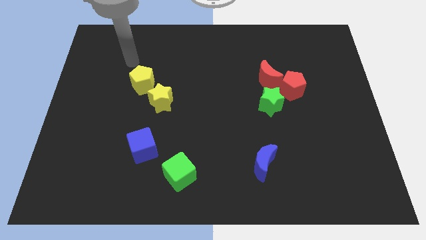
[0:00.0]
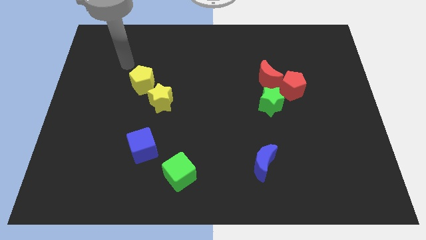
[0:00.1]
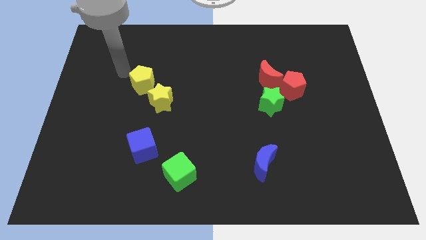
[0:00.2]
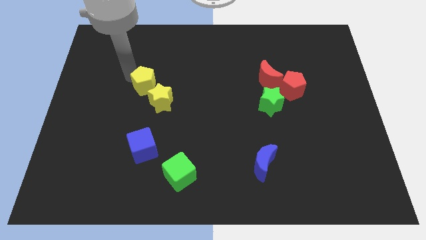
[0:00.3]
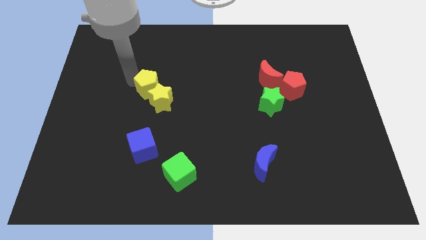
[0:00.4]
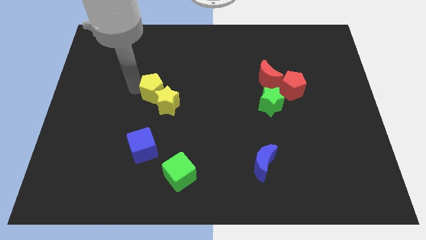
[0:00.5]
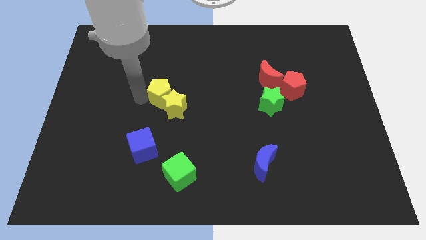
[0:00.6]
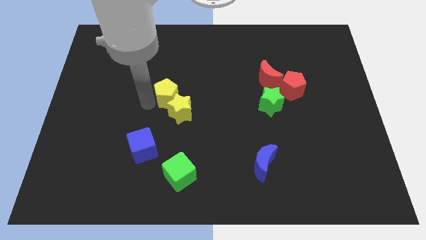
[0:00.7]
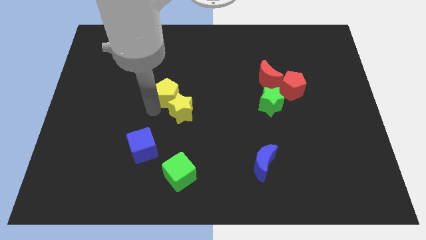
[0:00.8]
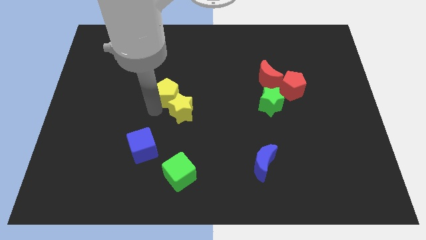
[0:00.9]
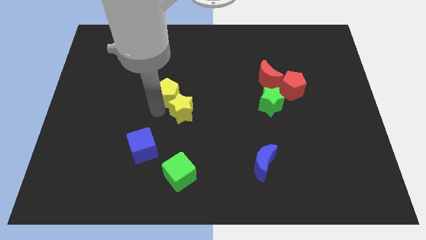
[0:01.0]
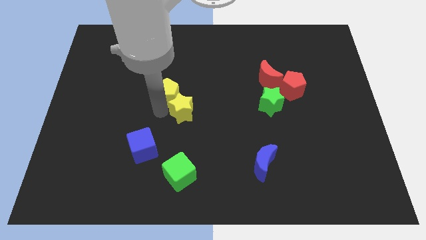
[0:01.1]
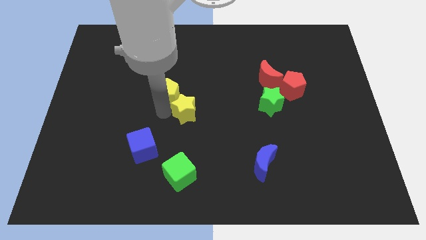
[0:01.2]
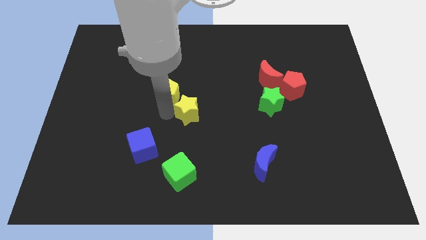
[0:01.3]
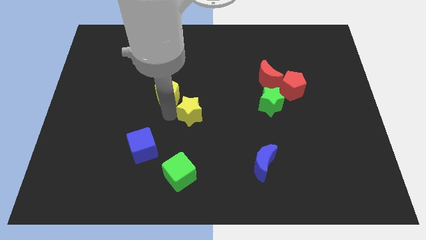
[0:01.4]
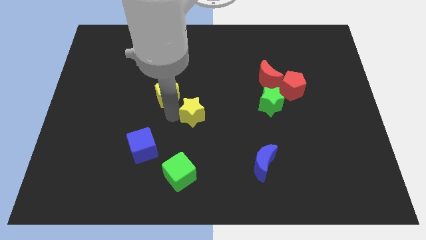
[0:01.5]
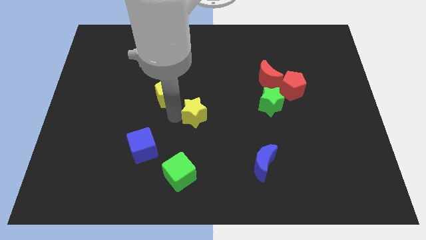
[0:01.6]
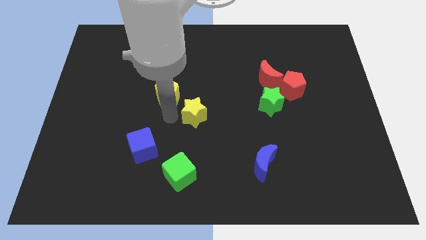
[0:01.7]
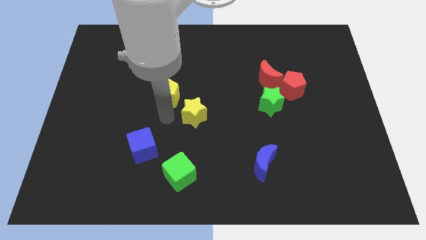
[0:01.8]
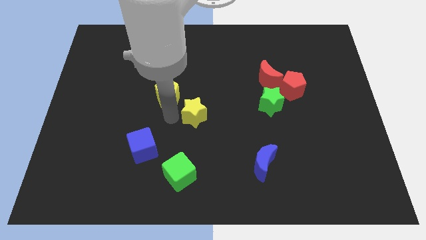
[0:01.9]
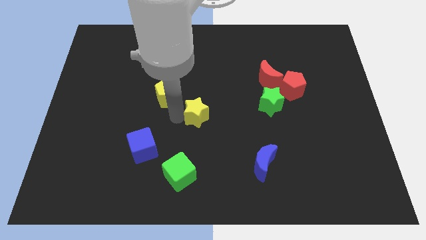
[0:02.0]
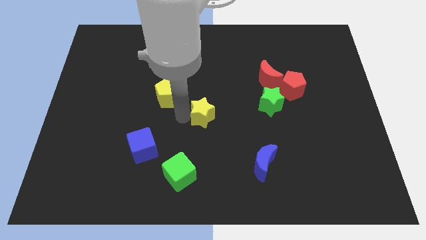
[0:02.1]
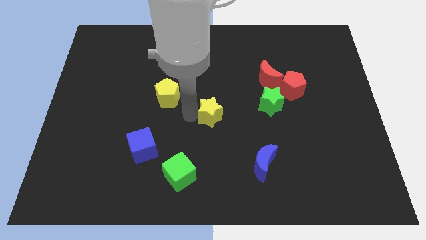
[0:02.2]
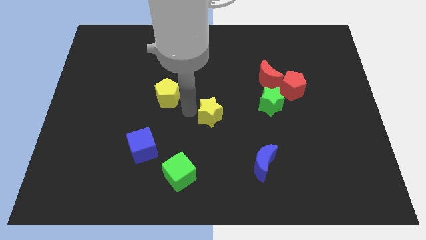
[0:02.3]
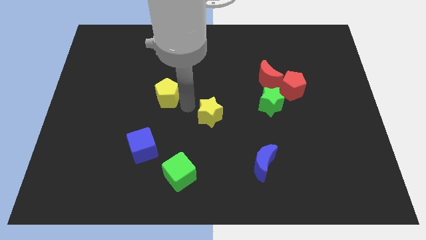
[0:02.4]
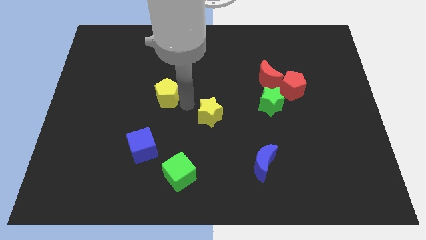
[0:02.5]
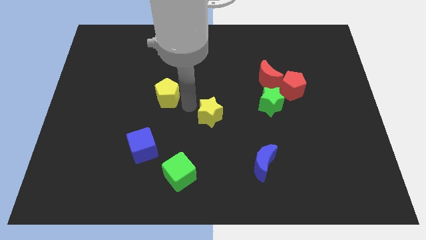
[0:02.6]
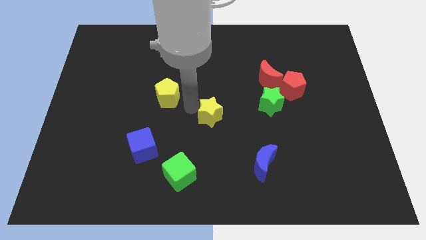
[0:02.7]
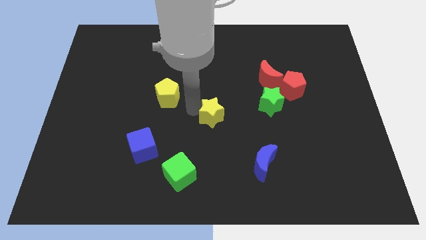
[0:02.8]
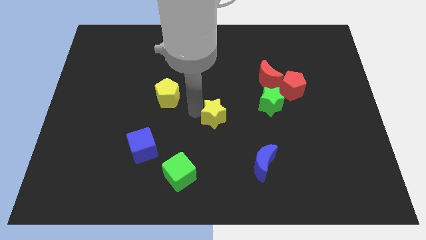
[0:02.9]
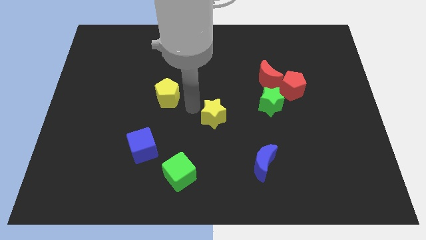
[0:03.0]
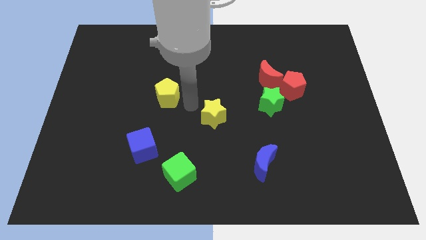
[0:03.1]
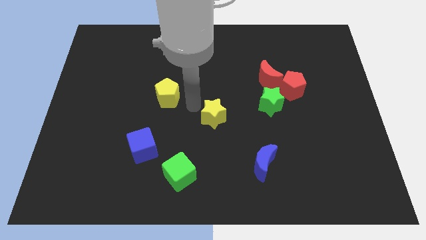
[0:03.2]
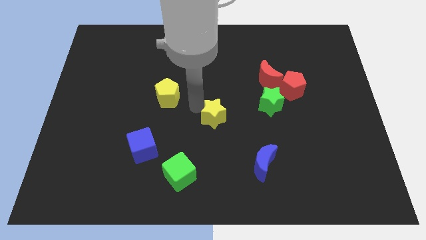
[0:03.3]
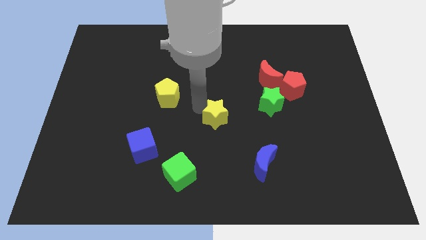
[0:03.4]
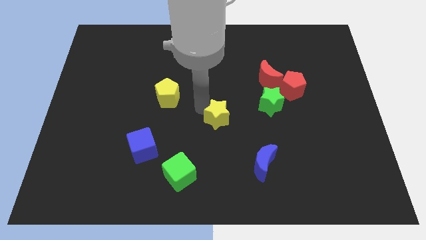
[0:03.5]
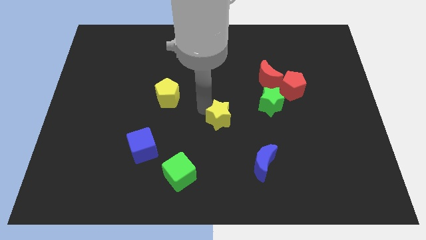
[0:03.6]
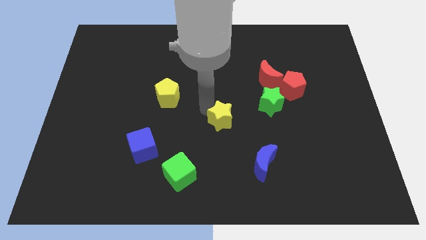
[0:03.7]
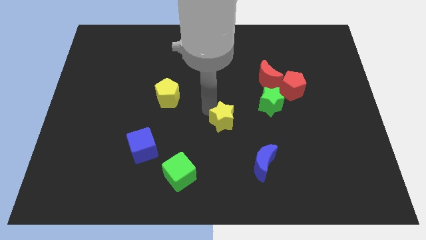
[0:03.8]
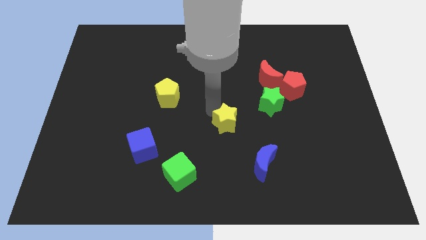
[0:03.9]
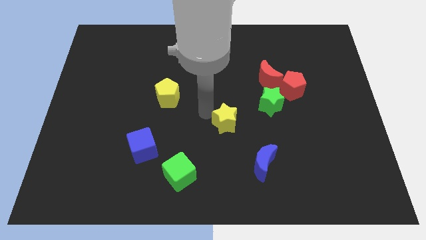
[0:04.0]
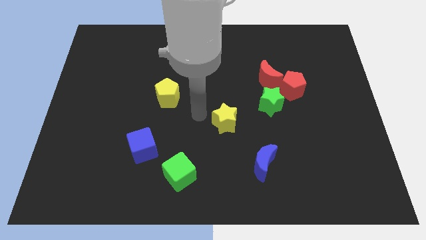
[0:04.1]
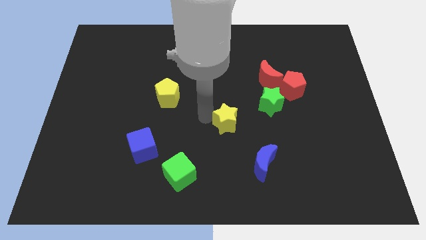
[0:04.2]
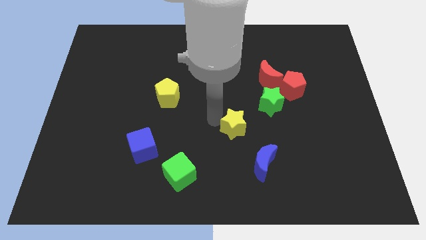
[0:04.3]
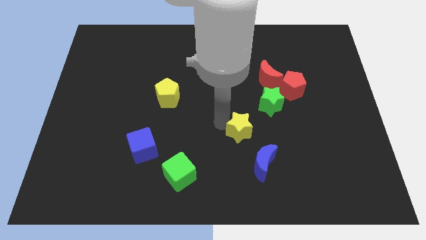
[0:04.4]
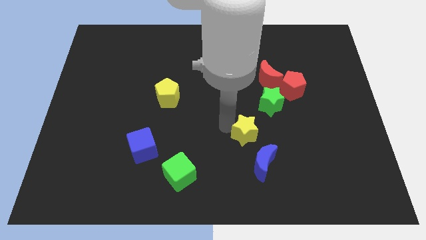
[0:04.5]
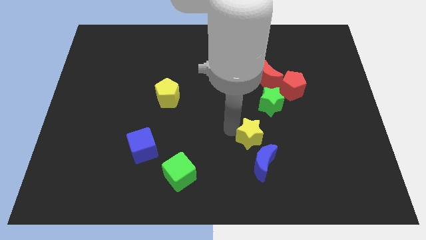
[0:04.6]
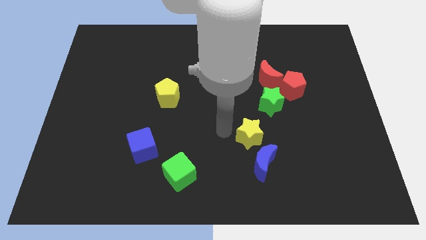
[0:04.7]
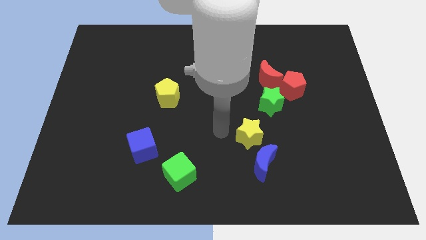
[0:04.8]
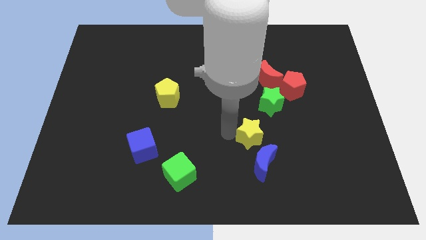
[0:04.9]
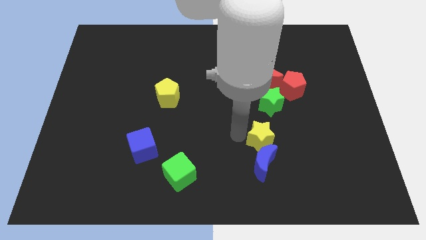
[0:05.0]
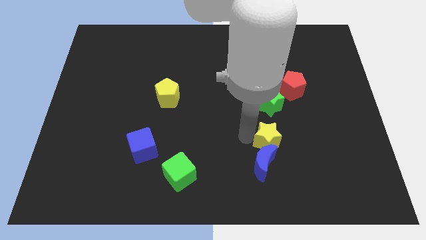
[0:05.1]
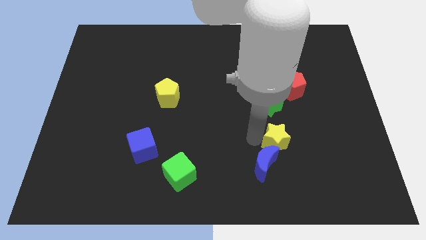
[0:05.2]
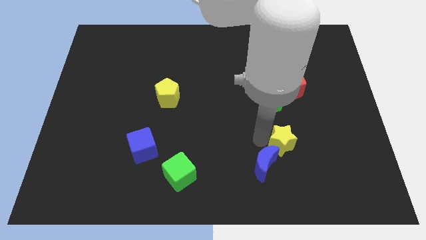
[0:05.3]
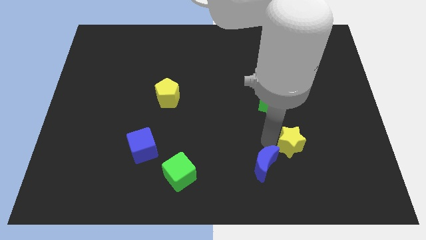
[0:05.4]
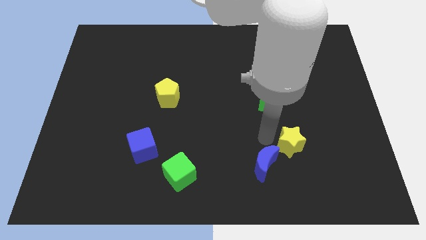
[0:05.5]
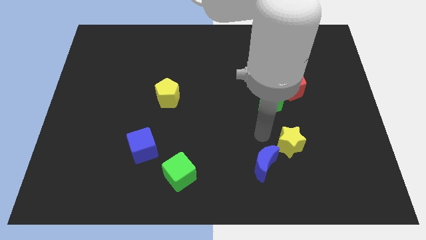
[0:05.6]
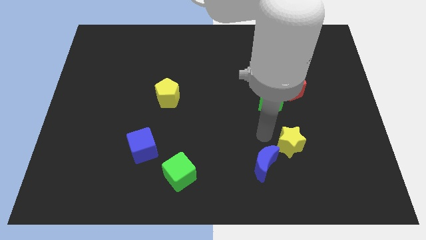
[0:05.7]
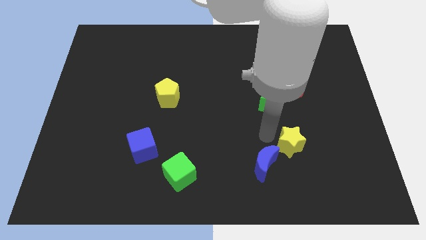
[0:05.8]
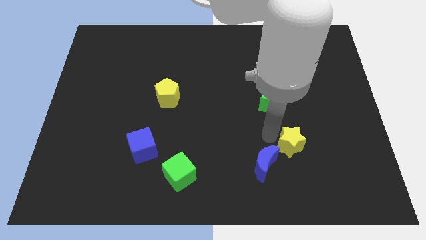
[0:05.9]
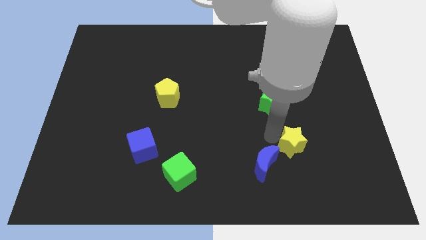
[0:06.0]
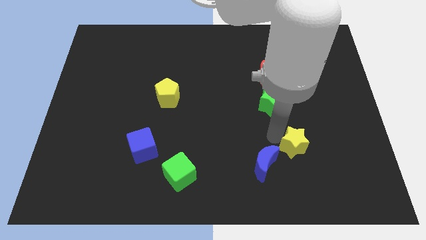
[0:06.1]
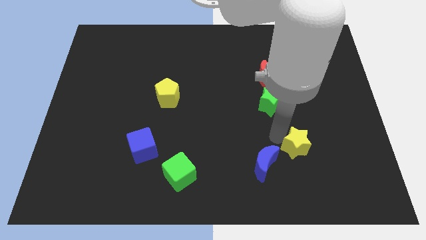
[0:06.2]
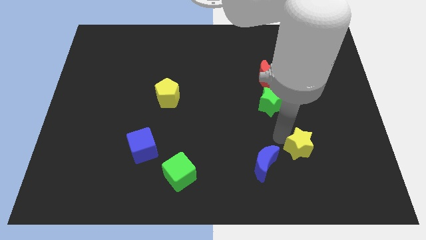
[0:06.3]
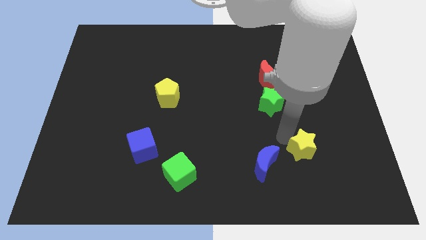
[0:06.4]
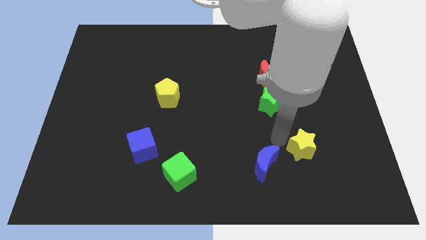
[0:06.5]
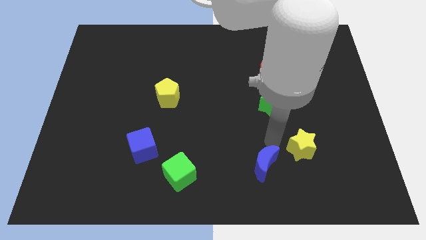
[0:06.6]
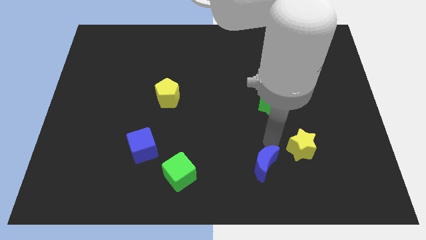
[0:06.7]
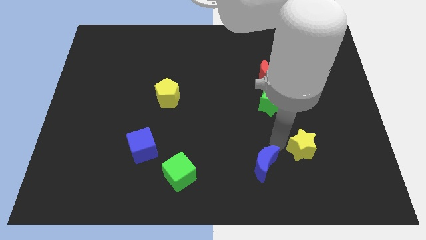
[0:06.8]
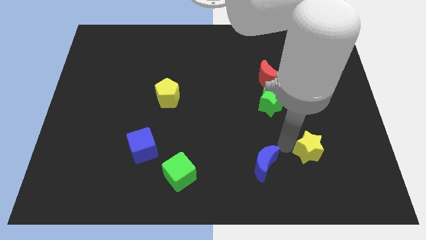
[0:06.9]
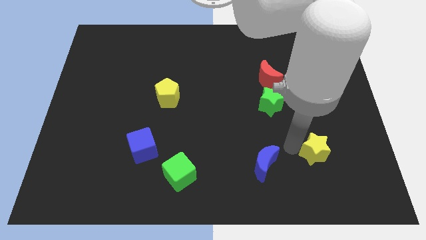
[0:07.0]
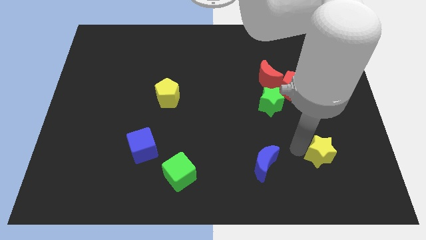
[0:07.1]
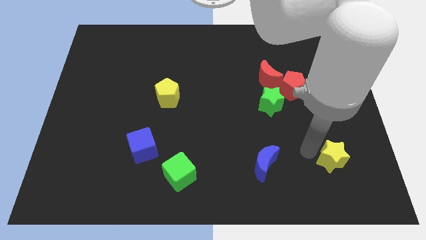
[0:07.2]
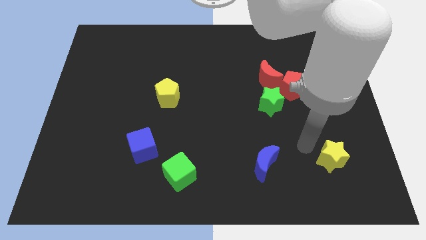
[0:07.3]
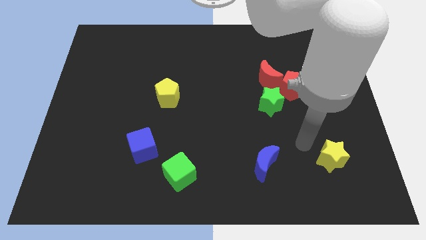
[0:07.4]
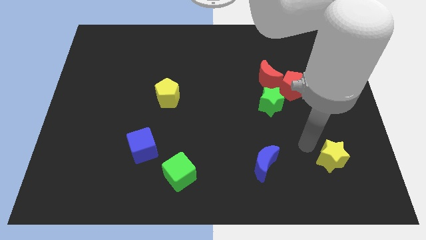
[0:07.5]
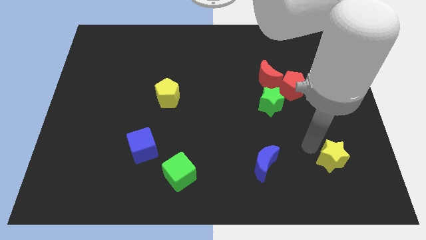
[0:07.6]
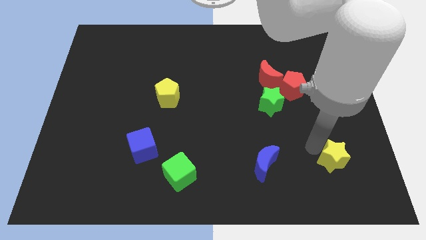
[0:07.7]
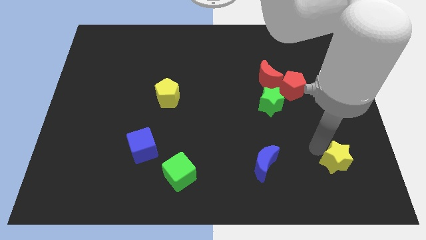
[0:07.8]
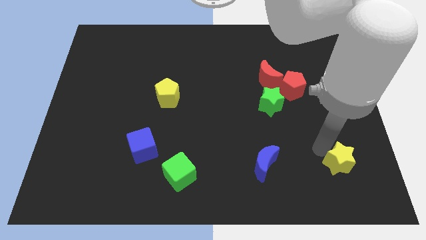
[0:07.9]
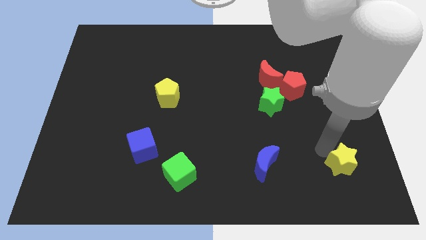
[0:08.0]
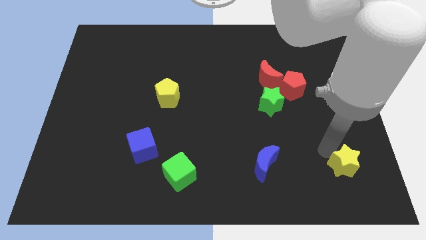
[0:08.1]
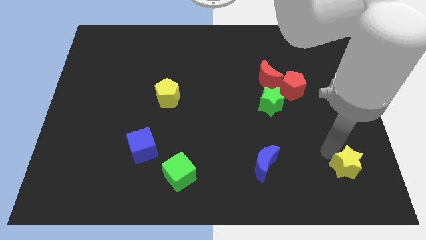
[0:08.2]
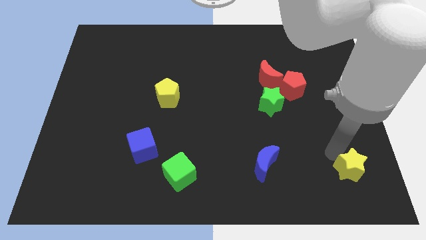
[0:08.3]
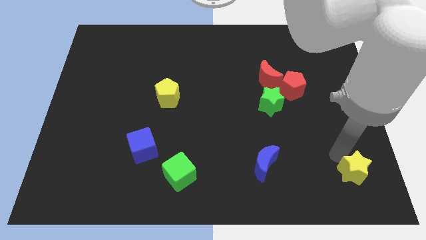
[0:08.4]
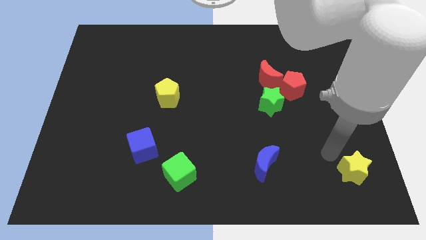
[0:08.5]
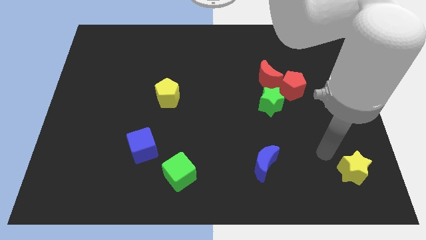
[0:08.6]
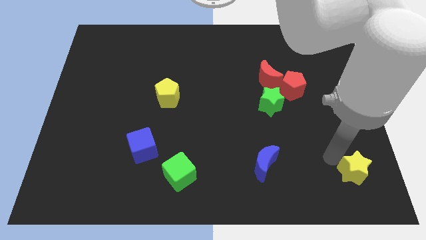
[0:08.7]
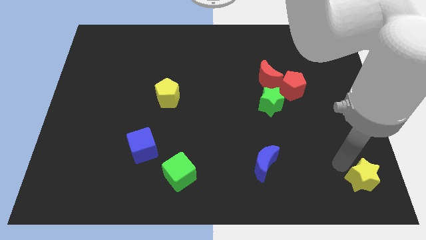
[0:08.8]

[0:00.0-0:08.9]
push the yellow star to the bottom right corner
